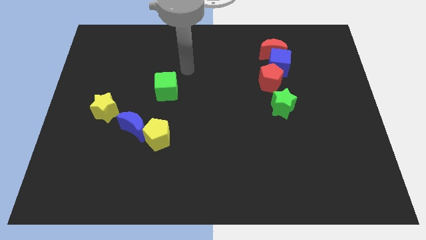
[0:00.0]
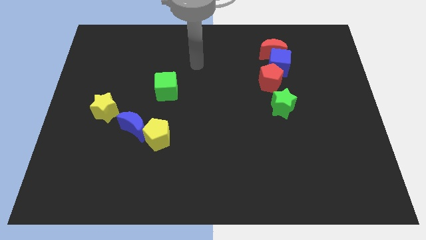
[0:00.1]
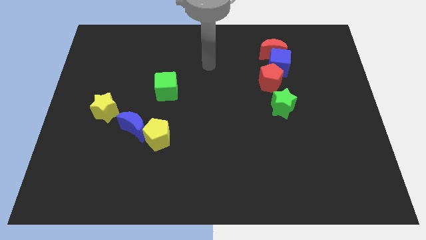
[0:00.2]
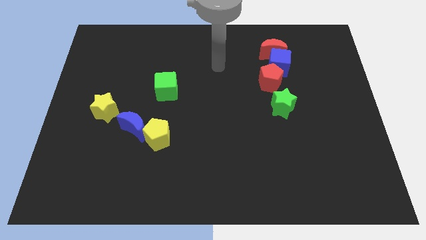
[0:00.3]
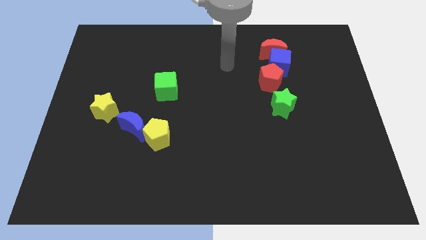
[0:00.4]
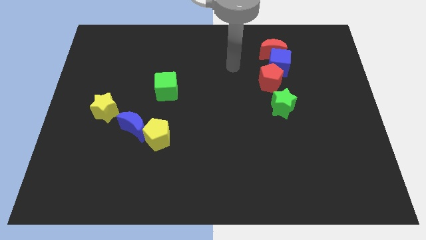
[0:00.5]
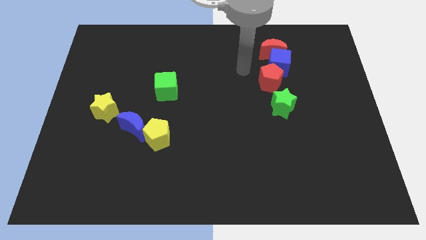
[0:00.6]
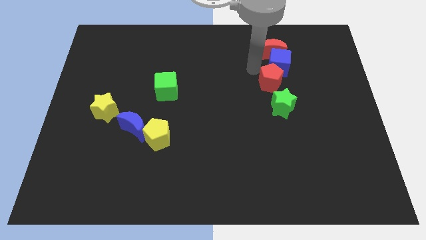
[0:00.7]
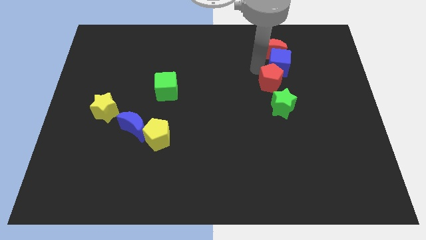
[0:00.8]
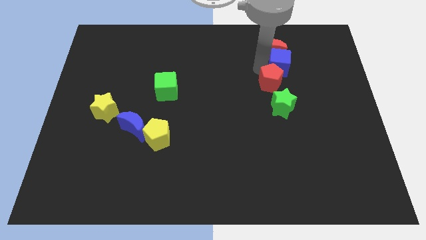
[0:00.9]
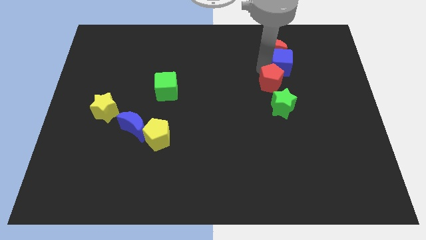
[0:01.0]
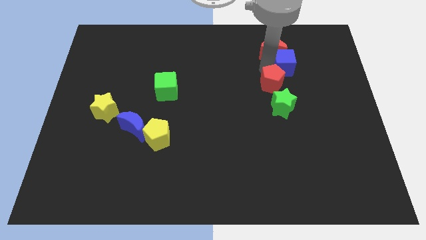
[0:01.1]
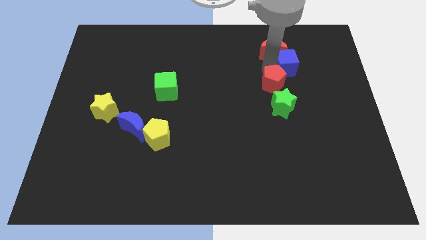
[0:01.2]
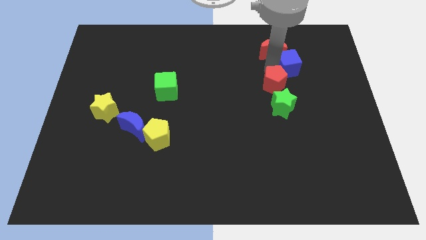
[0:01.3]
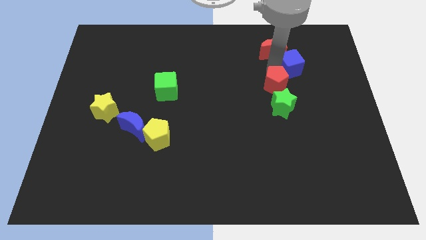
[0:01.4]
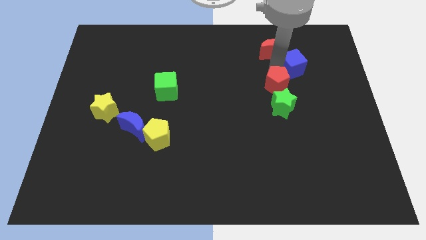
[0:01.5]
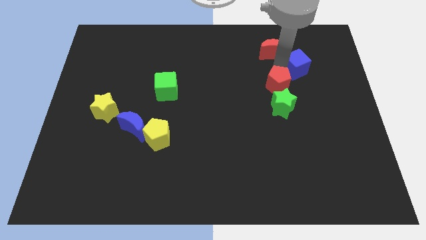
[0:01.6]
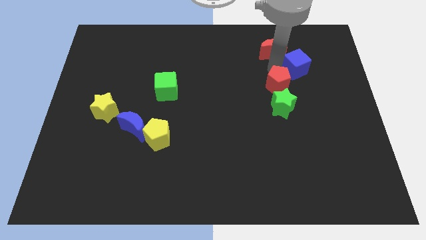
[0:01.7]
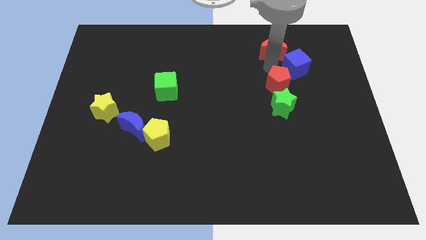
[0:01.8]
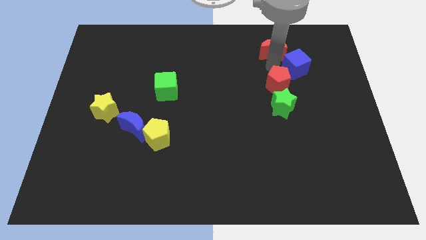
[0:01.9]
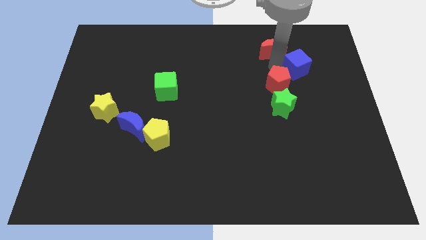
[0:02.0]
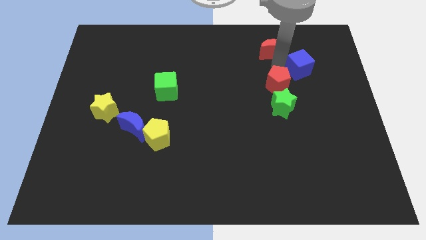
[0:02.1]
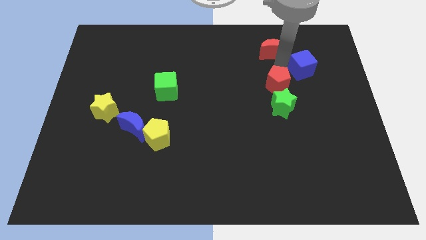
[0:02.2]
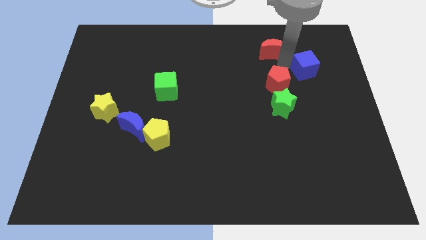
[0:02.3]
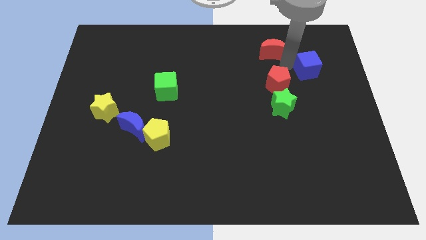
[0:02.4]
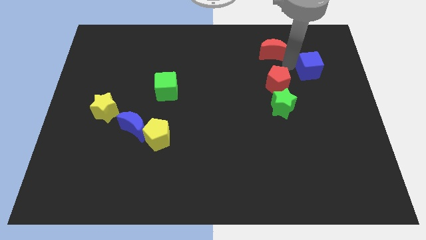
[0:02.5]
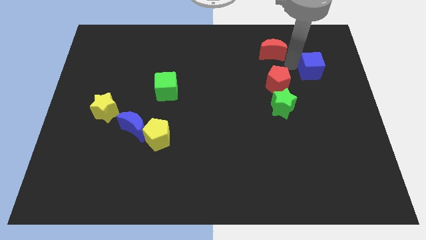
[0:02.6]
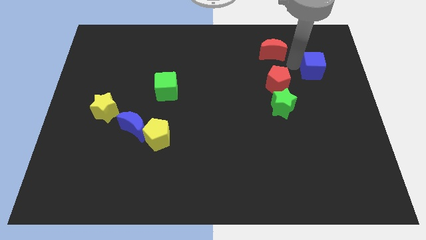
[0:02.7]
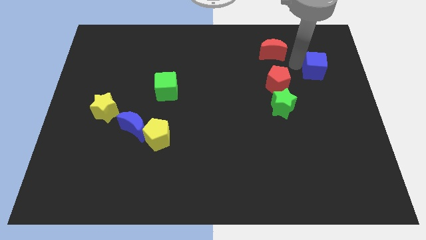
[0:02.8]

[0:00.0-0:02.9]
separate the blue cube from the red moon and red pentagon

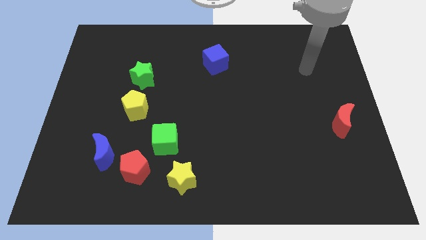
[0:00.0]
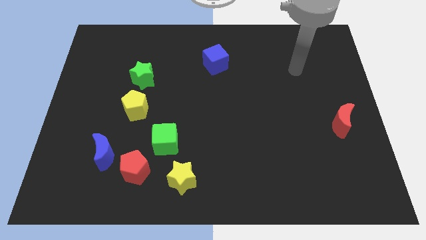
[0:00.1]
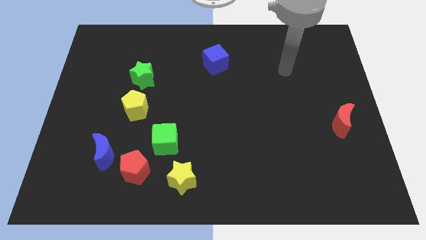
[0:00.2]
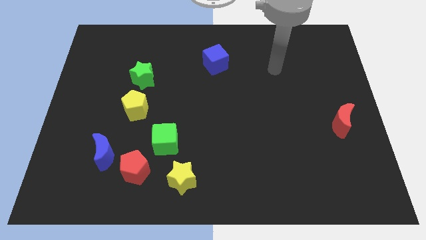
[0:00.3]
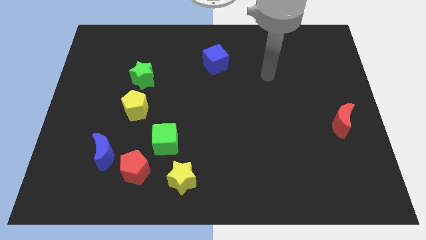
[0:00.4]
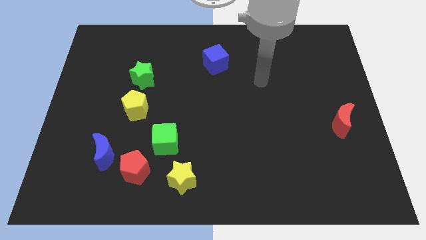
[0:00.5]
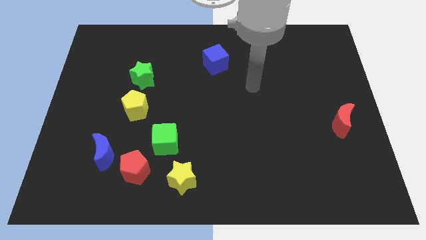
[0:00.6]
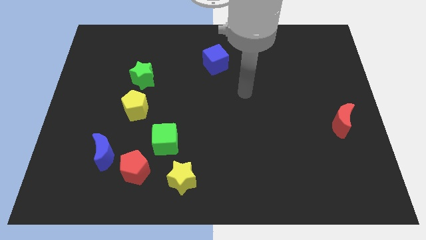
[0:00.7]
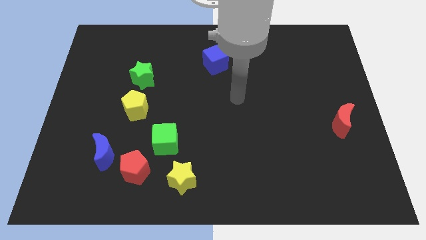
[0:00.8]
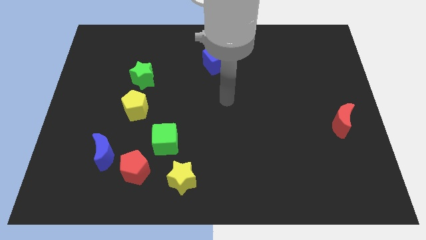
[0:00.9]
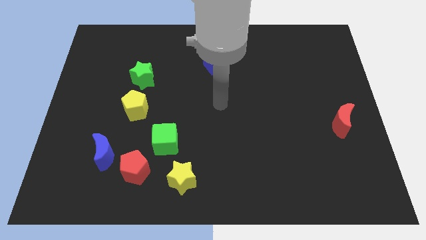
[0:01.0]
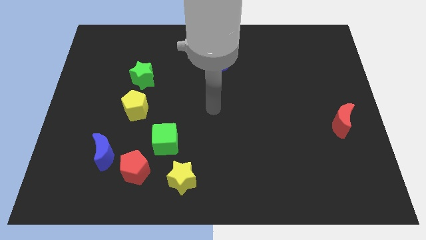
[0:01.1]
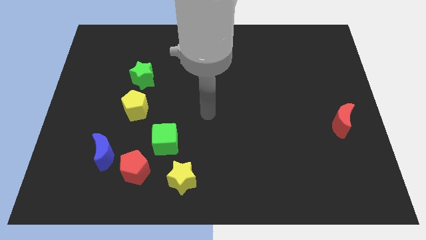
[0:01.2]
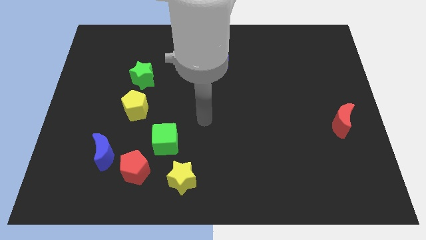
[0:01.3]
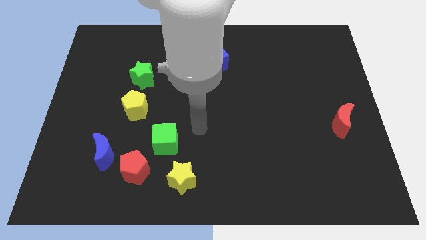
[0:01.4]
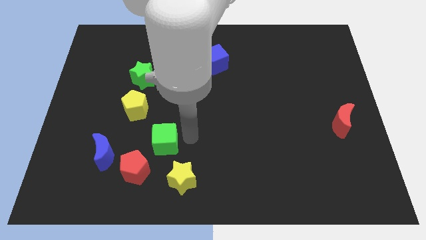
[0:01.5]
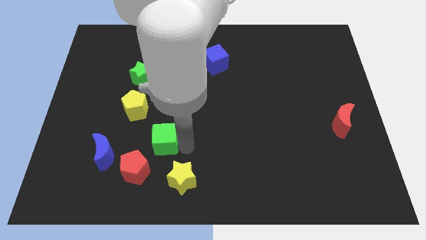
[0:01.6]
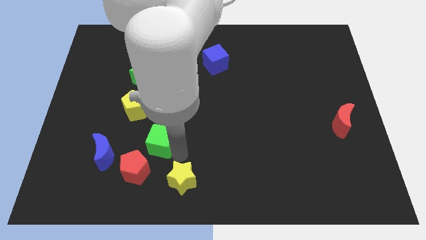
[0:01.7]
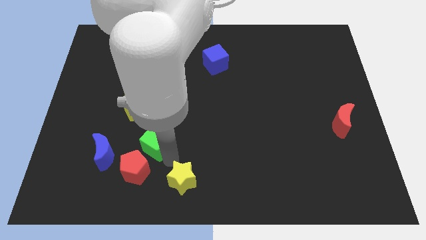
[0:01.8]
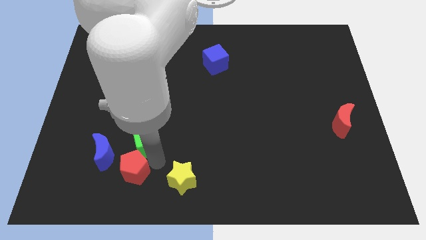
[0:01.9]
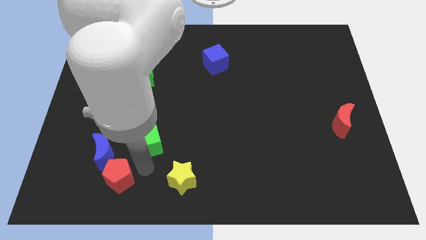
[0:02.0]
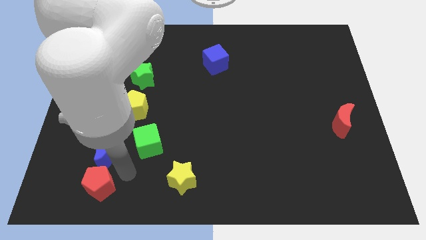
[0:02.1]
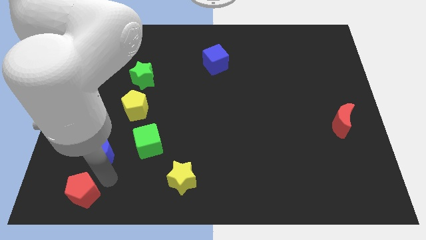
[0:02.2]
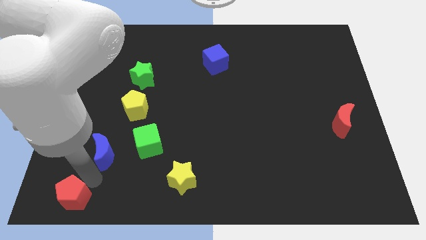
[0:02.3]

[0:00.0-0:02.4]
separate the blue moon from the red pentagon

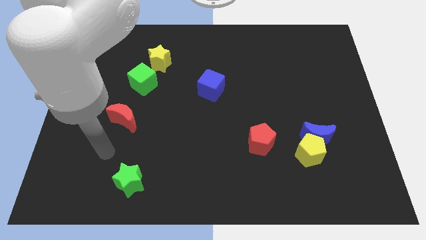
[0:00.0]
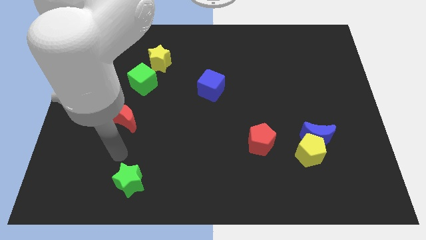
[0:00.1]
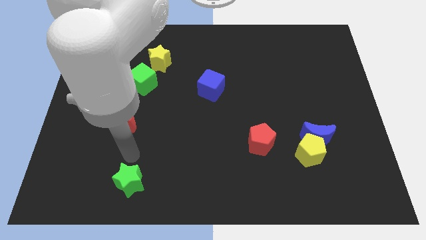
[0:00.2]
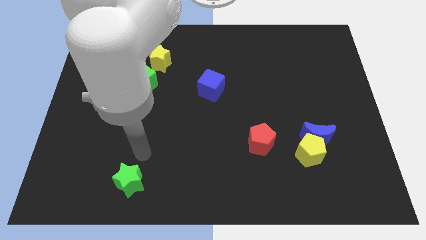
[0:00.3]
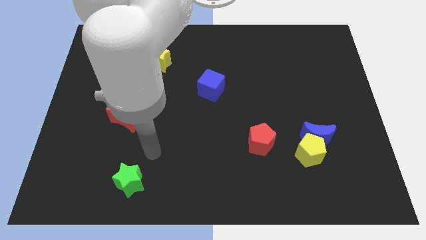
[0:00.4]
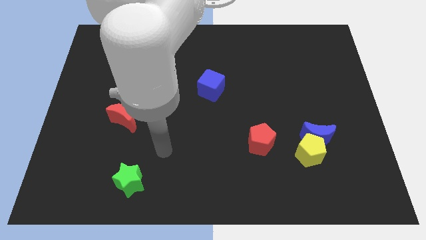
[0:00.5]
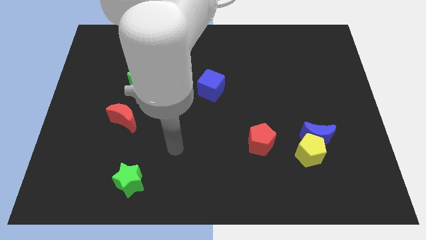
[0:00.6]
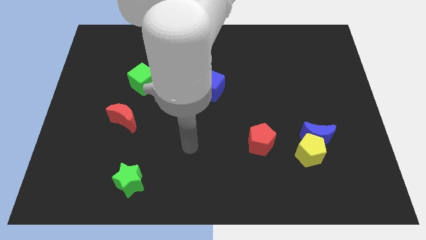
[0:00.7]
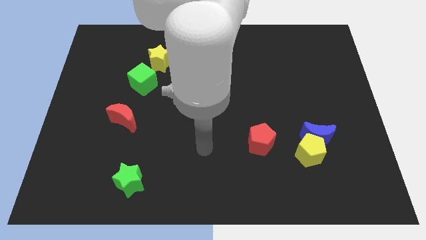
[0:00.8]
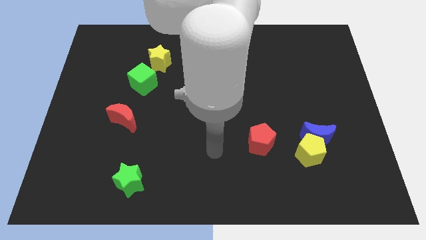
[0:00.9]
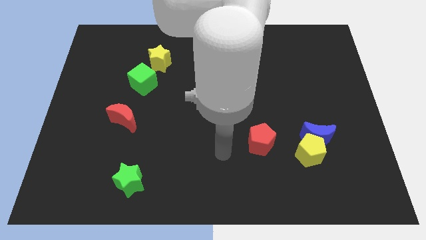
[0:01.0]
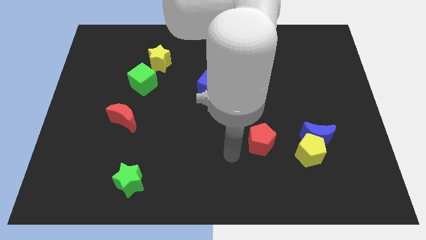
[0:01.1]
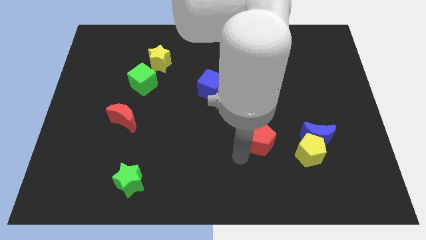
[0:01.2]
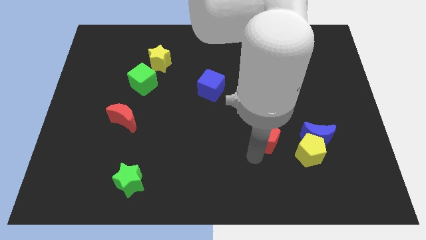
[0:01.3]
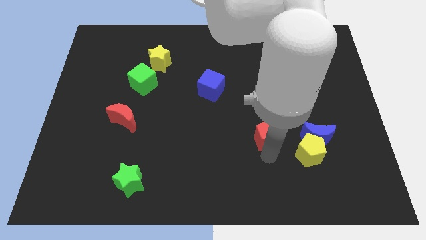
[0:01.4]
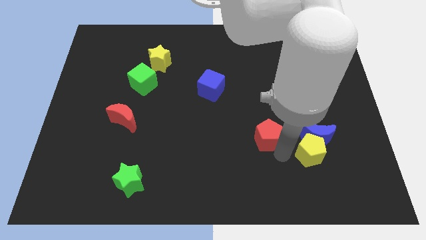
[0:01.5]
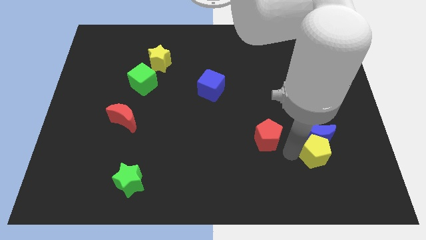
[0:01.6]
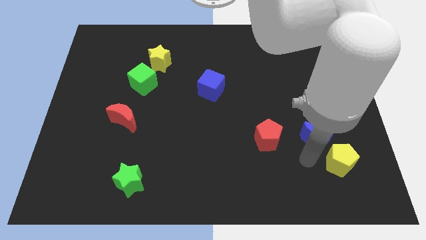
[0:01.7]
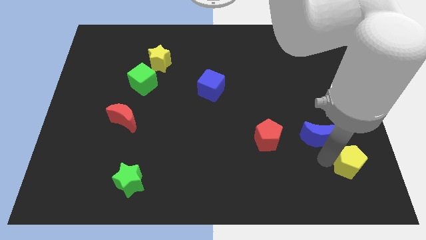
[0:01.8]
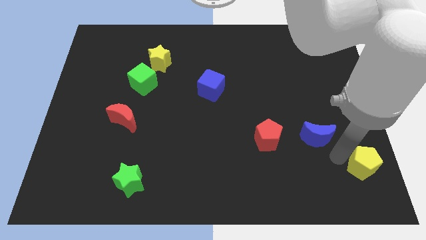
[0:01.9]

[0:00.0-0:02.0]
separate the blue moon from the yellow pentagon

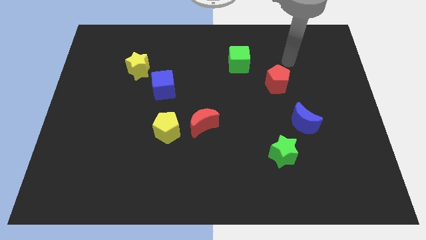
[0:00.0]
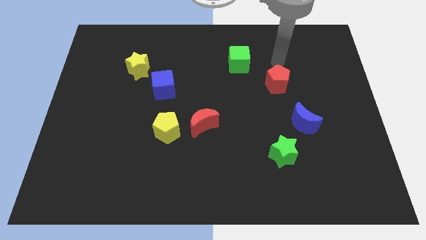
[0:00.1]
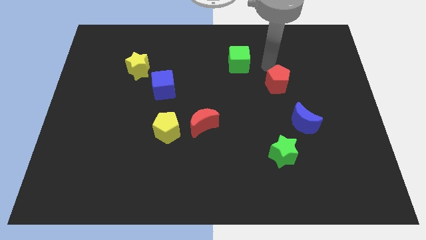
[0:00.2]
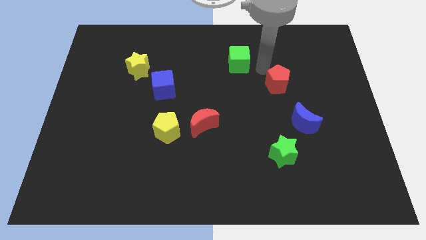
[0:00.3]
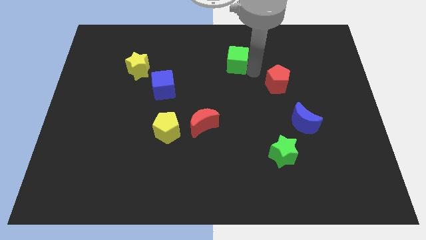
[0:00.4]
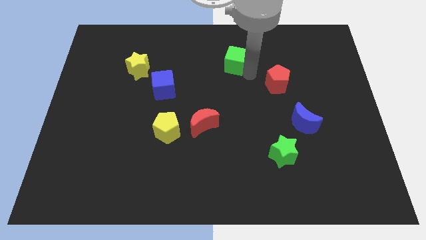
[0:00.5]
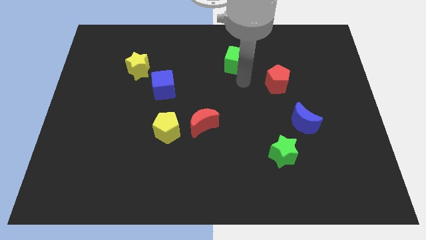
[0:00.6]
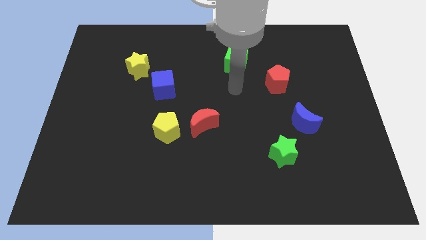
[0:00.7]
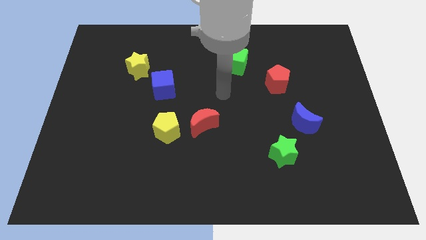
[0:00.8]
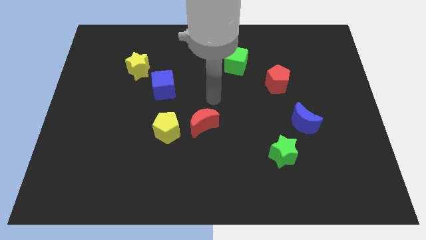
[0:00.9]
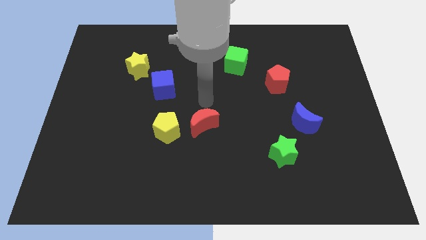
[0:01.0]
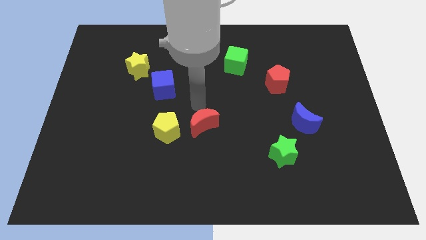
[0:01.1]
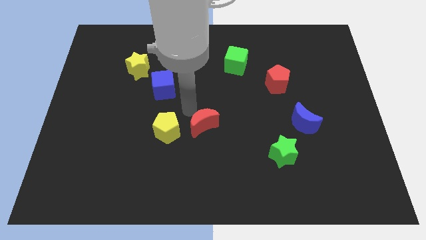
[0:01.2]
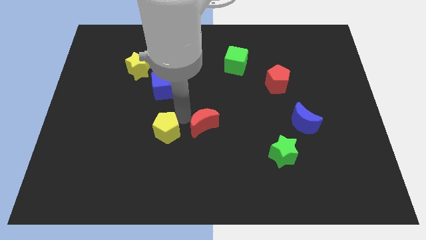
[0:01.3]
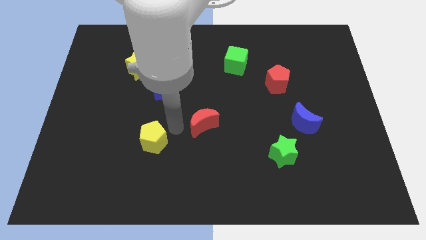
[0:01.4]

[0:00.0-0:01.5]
pull the red moon apart from the yellow pentagon

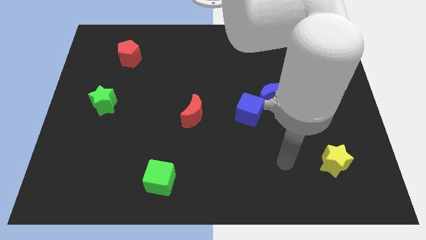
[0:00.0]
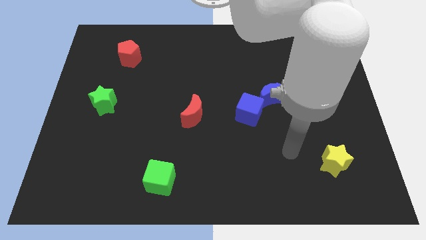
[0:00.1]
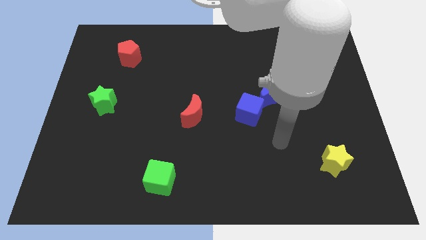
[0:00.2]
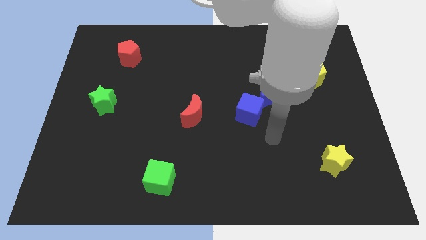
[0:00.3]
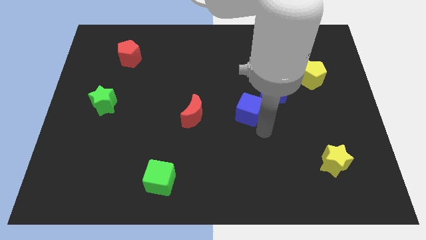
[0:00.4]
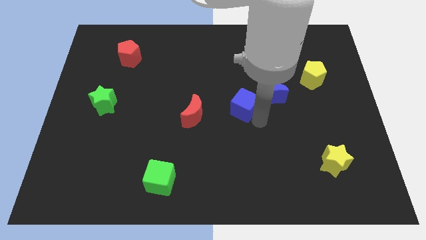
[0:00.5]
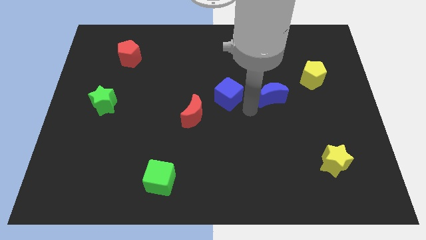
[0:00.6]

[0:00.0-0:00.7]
pull the blue moon apart from the blue cube

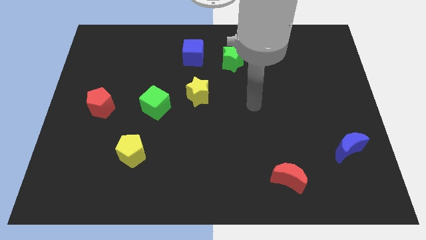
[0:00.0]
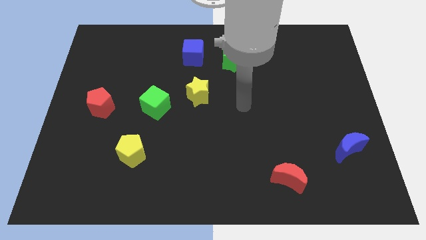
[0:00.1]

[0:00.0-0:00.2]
separate the green cube from the yellow star
